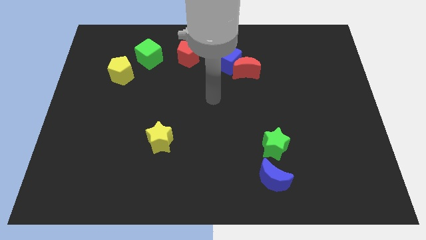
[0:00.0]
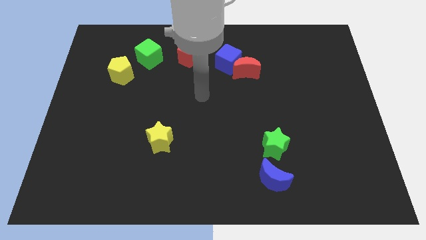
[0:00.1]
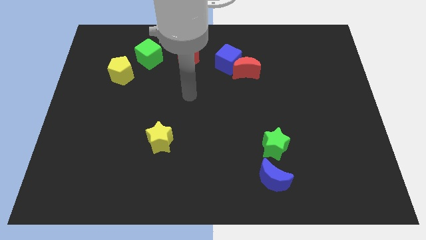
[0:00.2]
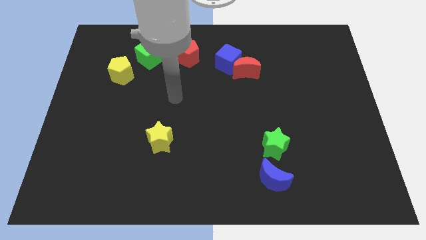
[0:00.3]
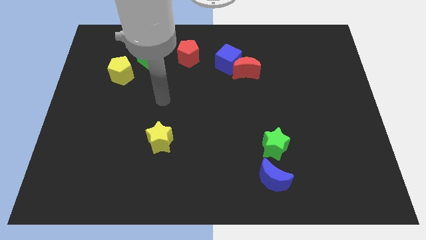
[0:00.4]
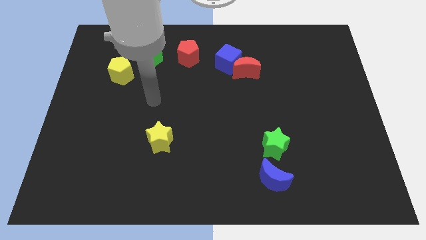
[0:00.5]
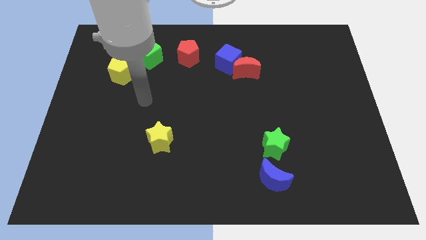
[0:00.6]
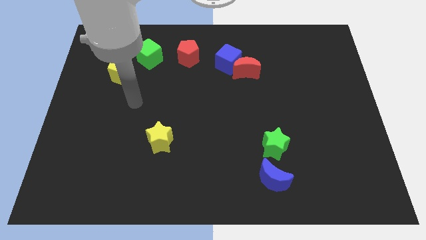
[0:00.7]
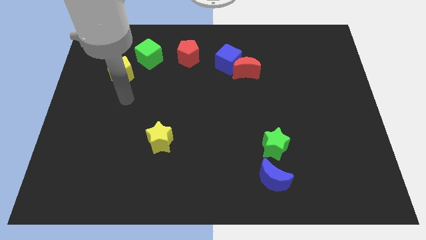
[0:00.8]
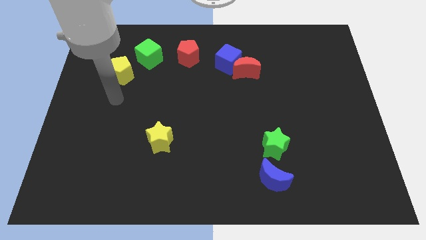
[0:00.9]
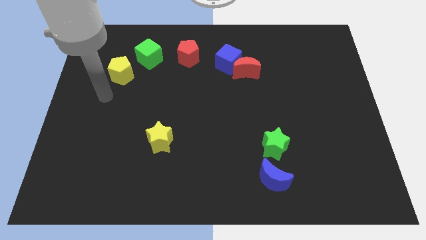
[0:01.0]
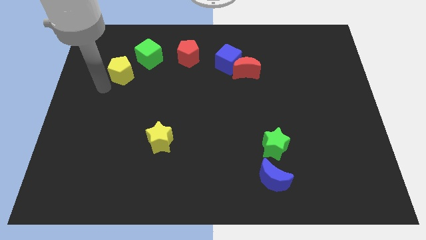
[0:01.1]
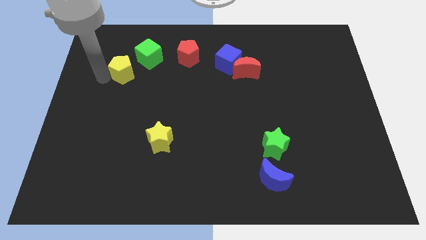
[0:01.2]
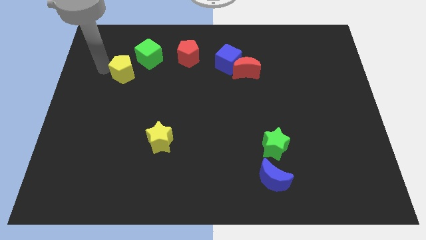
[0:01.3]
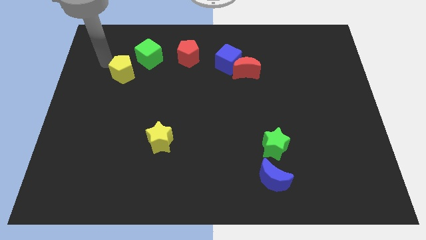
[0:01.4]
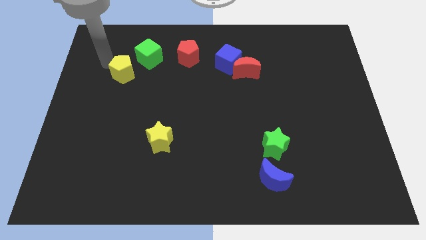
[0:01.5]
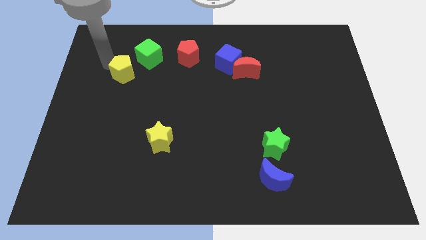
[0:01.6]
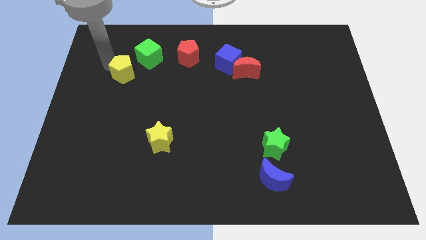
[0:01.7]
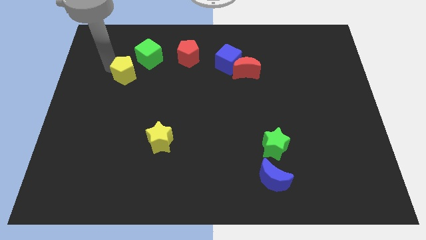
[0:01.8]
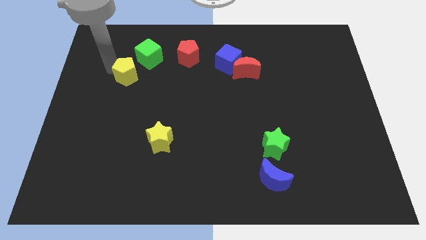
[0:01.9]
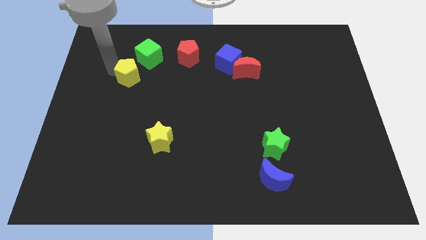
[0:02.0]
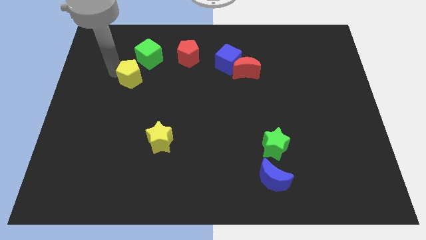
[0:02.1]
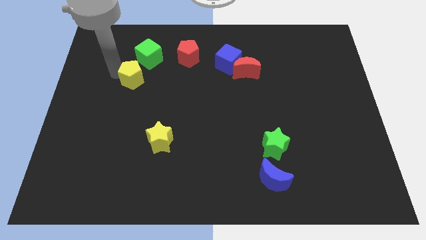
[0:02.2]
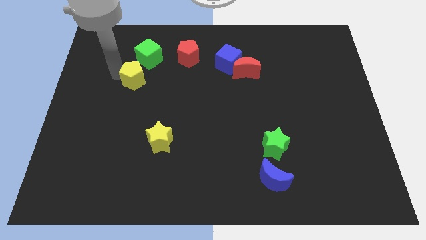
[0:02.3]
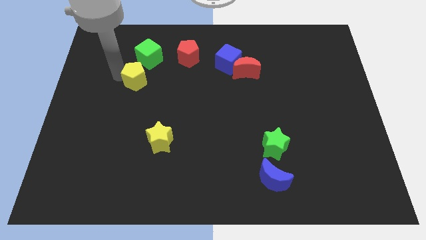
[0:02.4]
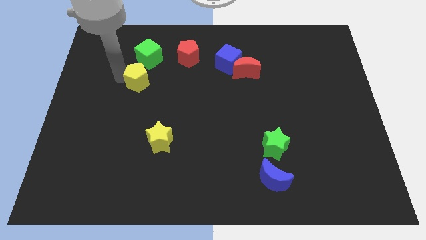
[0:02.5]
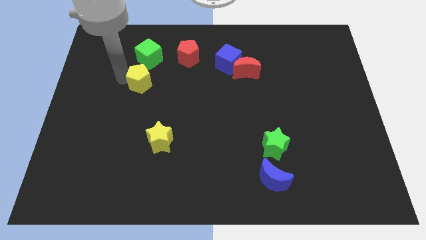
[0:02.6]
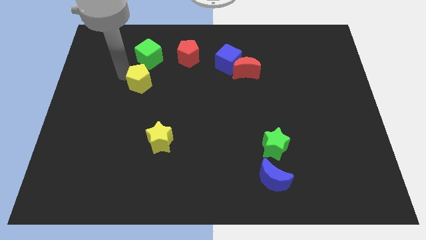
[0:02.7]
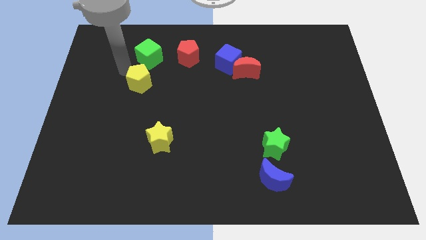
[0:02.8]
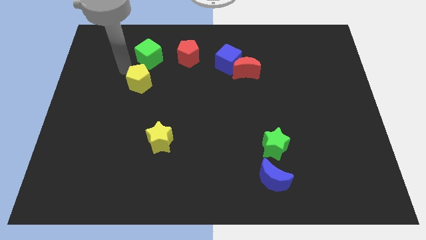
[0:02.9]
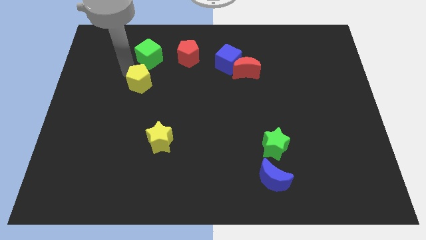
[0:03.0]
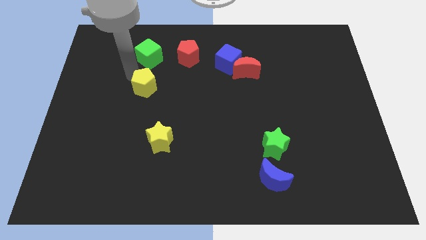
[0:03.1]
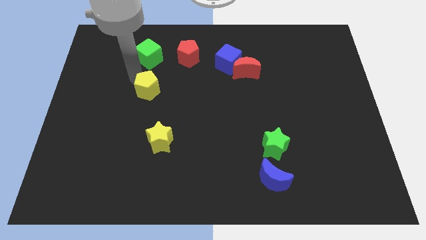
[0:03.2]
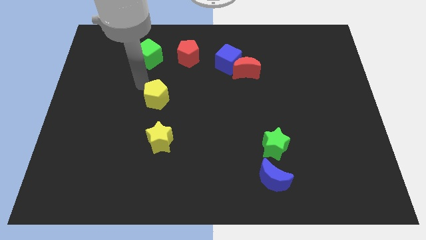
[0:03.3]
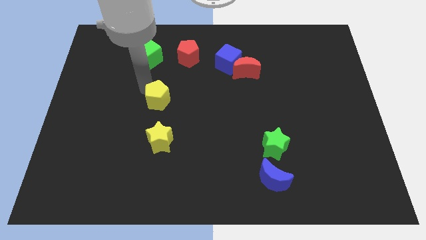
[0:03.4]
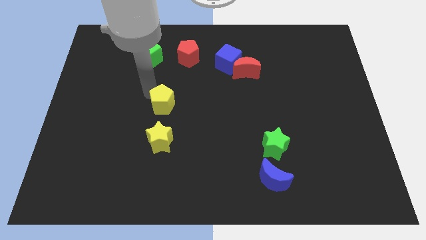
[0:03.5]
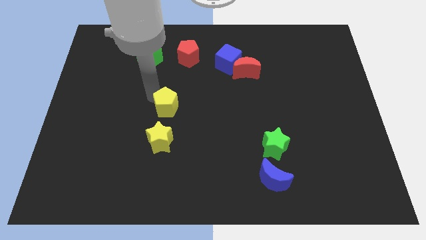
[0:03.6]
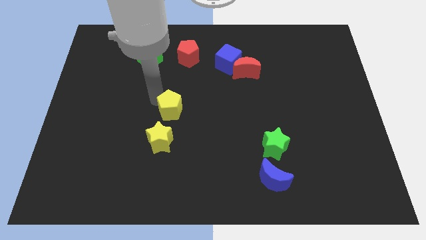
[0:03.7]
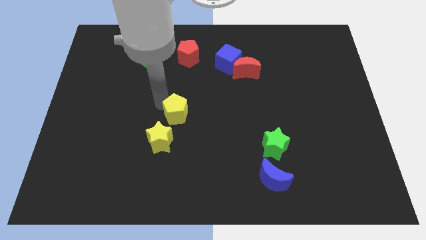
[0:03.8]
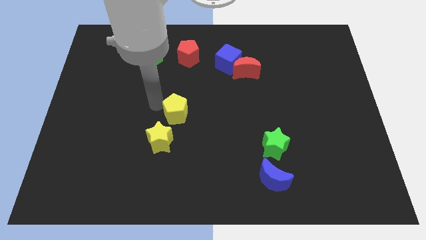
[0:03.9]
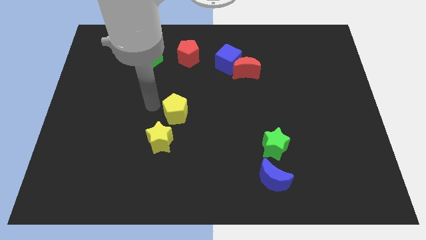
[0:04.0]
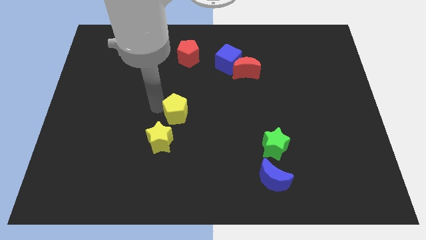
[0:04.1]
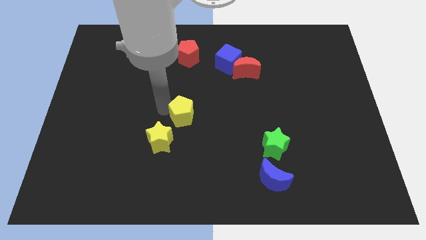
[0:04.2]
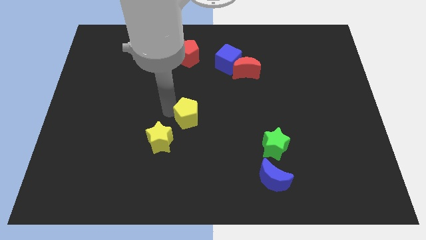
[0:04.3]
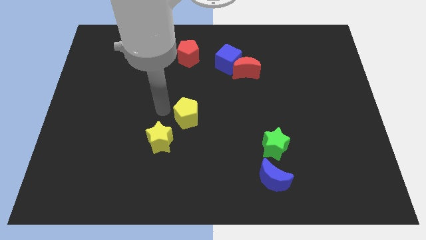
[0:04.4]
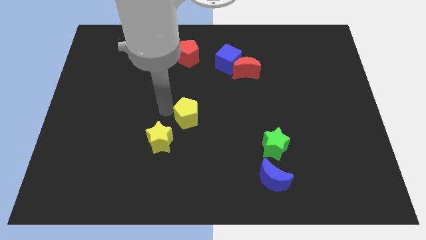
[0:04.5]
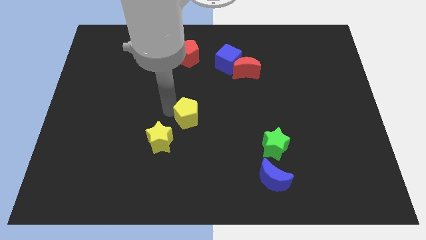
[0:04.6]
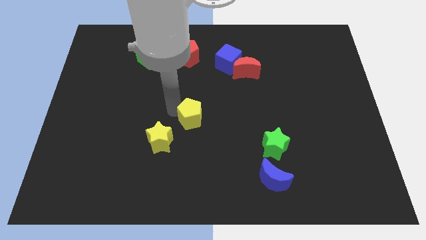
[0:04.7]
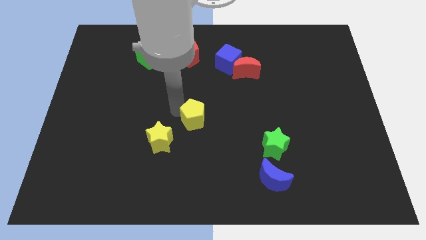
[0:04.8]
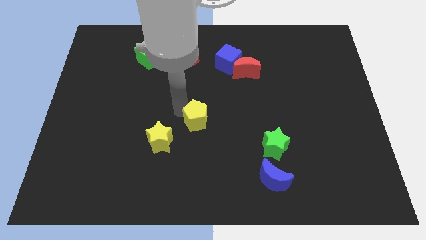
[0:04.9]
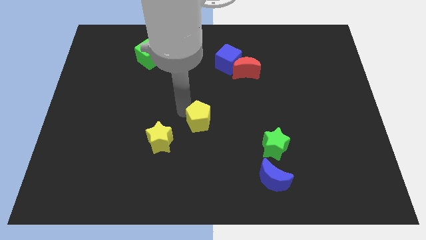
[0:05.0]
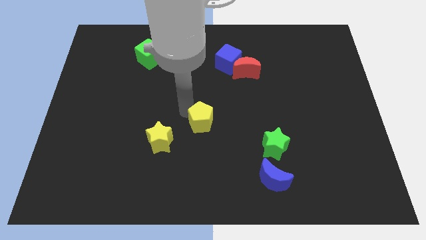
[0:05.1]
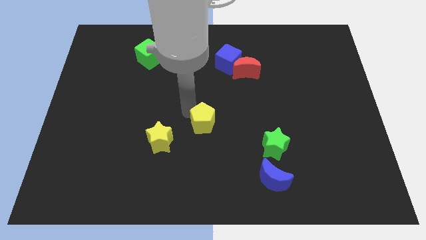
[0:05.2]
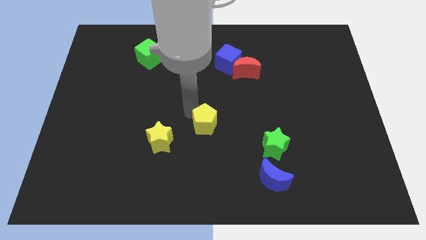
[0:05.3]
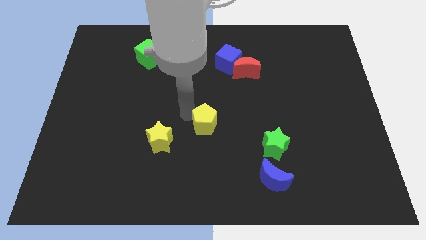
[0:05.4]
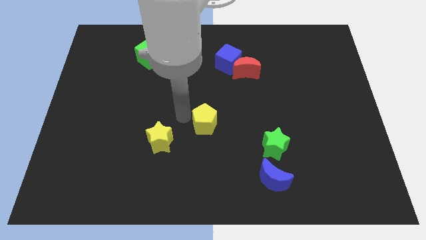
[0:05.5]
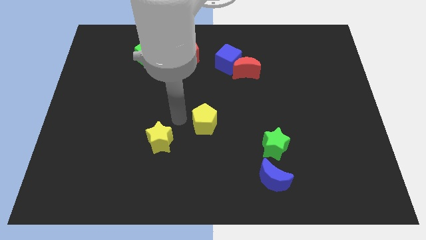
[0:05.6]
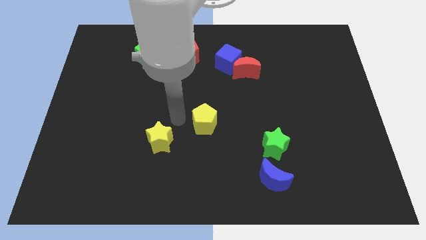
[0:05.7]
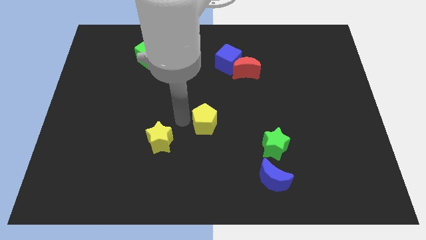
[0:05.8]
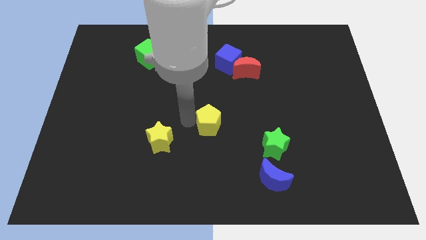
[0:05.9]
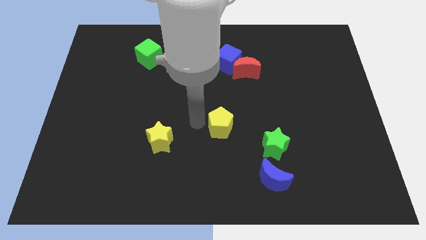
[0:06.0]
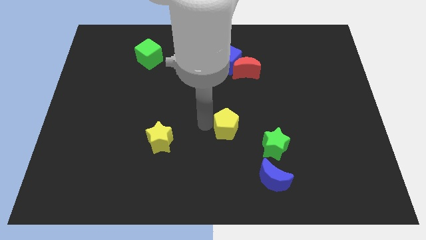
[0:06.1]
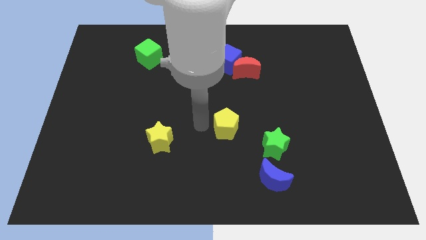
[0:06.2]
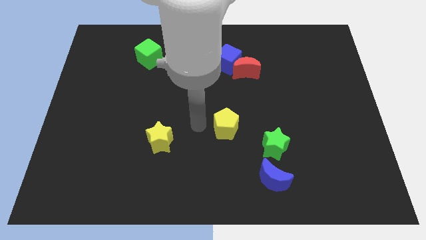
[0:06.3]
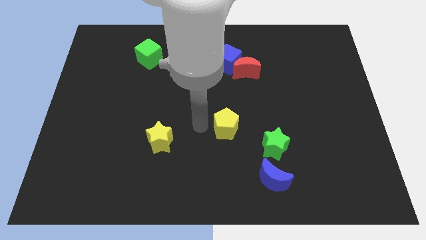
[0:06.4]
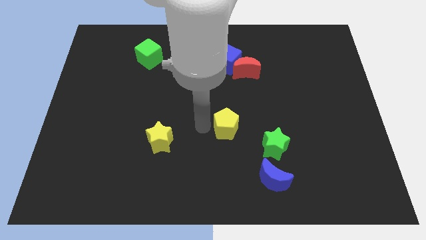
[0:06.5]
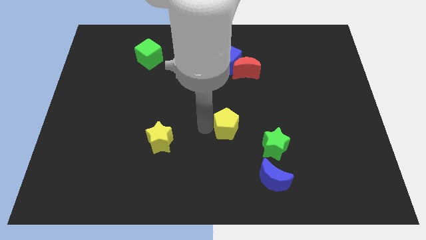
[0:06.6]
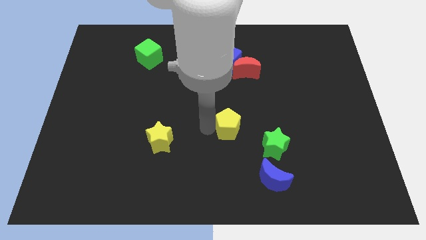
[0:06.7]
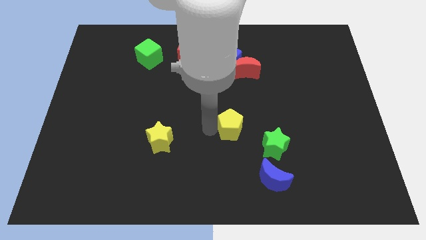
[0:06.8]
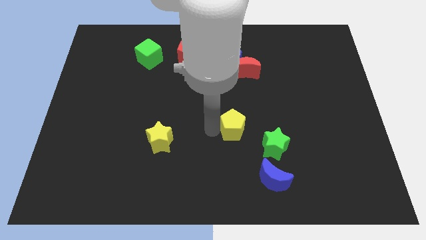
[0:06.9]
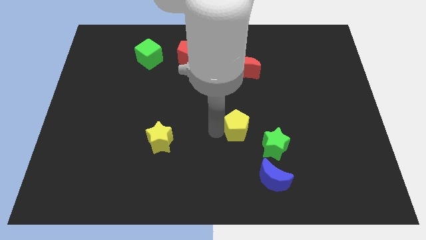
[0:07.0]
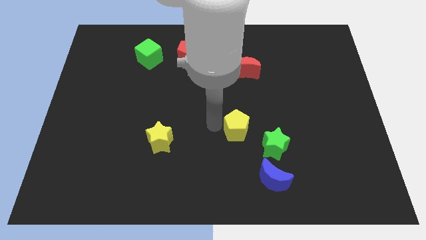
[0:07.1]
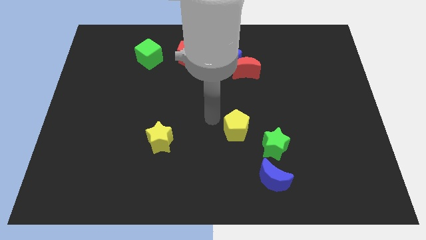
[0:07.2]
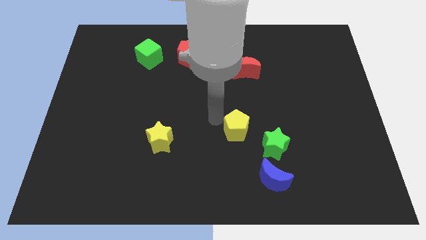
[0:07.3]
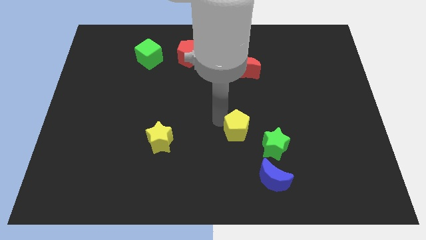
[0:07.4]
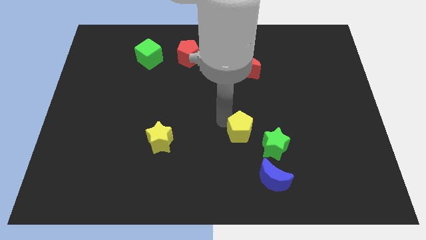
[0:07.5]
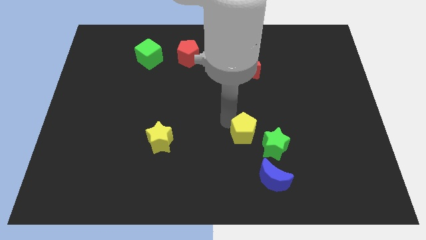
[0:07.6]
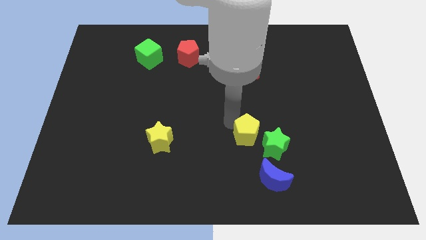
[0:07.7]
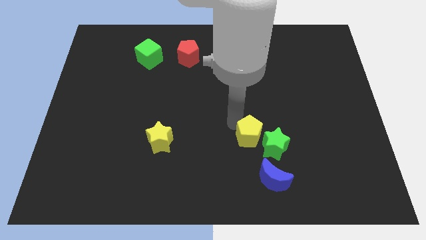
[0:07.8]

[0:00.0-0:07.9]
slide the yellow pentagon next to the green star
